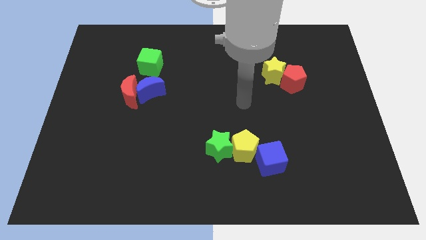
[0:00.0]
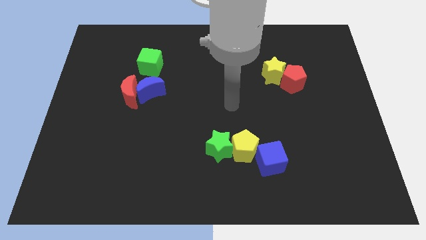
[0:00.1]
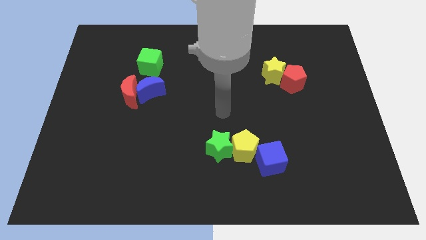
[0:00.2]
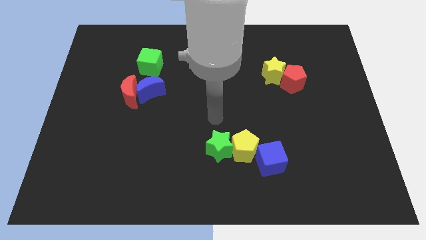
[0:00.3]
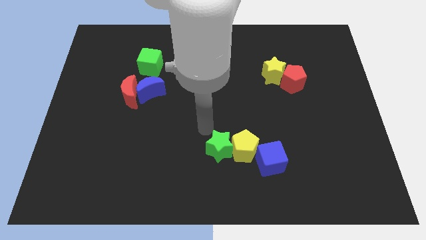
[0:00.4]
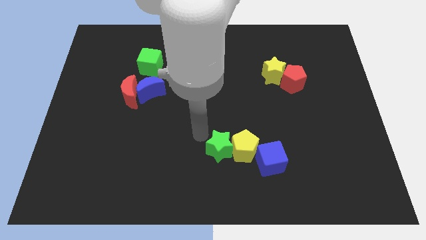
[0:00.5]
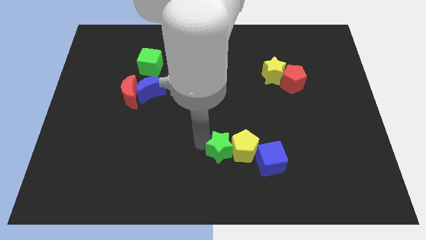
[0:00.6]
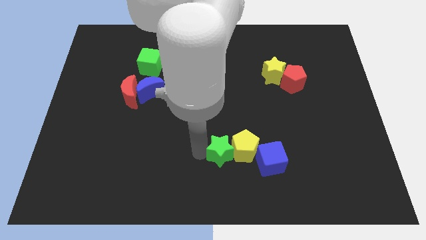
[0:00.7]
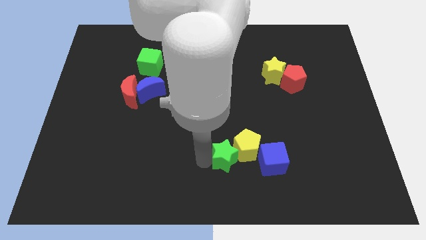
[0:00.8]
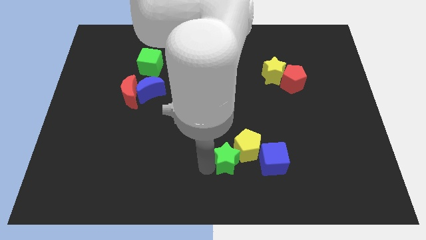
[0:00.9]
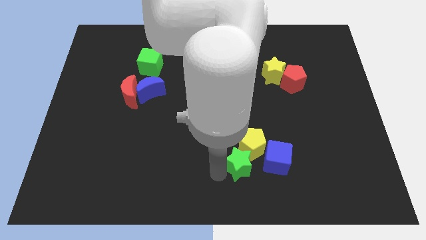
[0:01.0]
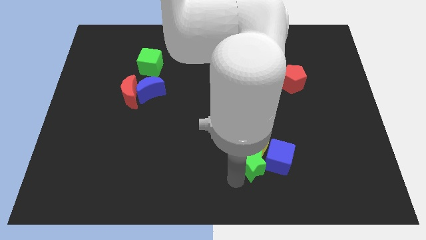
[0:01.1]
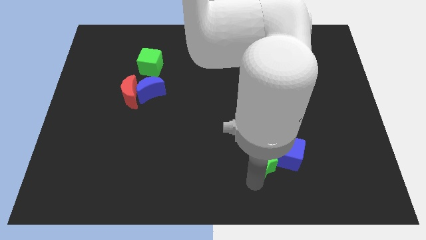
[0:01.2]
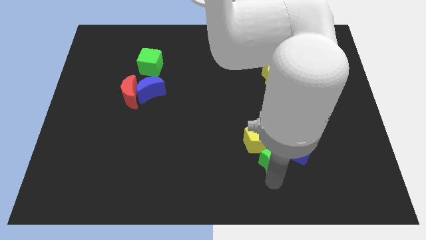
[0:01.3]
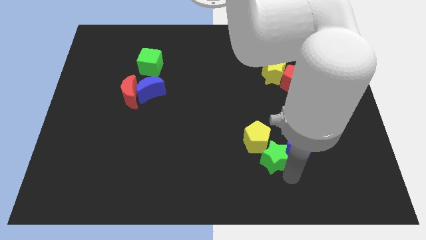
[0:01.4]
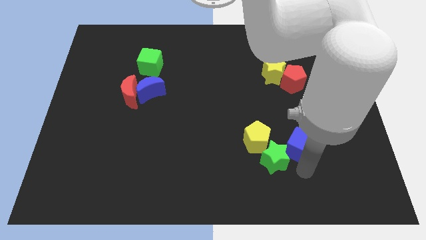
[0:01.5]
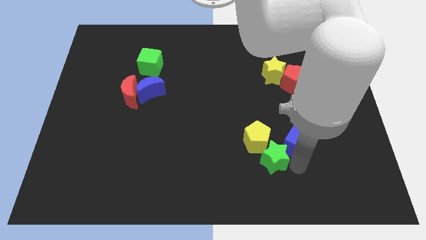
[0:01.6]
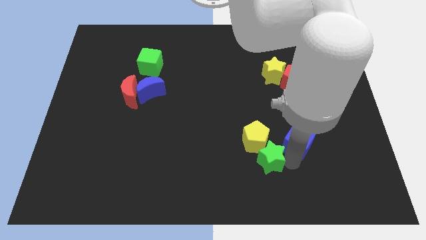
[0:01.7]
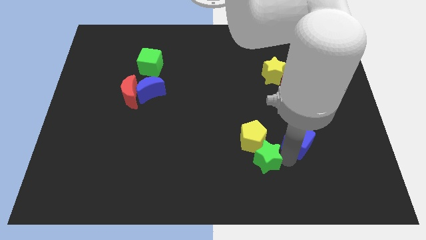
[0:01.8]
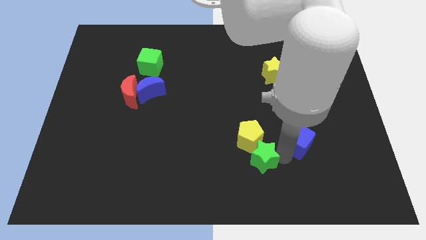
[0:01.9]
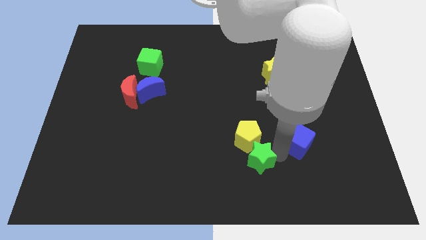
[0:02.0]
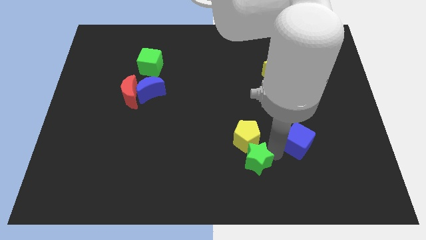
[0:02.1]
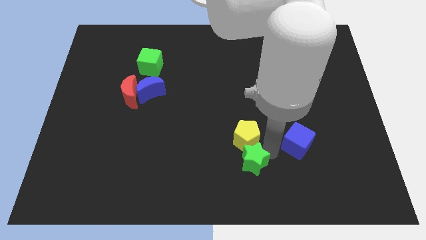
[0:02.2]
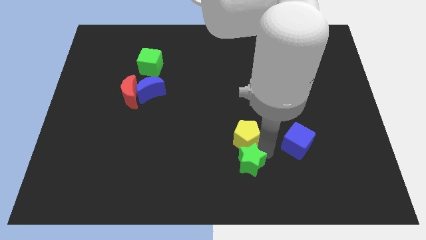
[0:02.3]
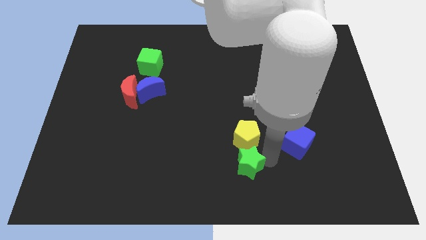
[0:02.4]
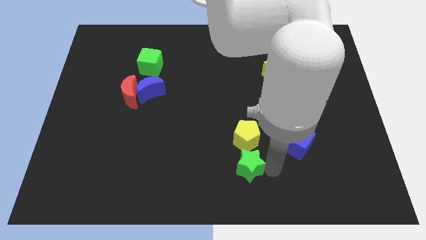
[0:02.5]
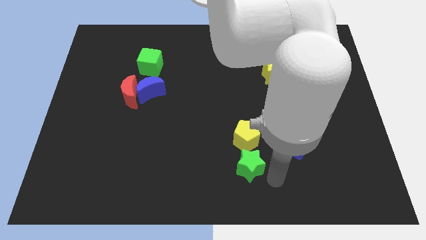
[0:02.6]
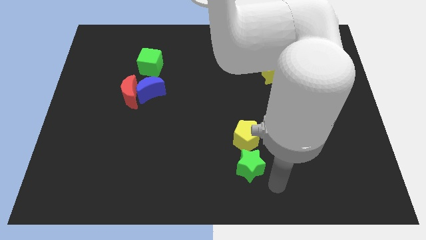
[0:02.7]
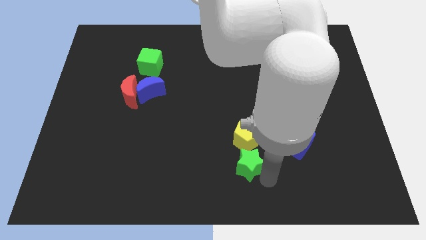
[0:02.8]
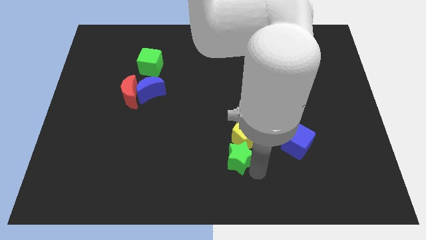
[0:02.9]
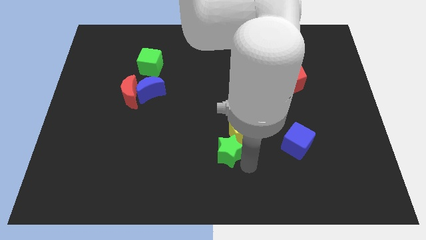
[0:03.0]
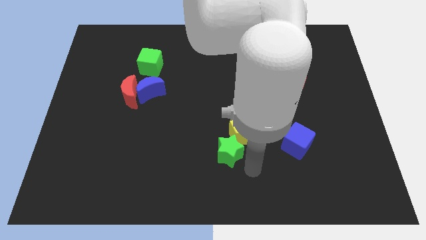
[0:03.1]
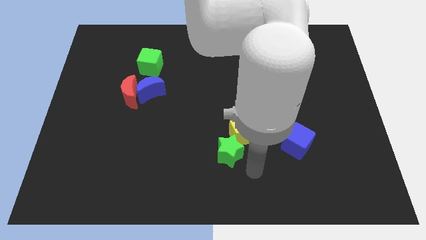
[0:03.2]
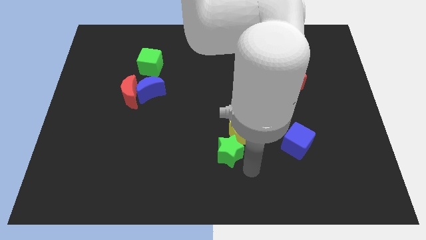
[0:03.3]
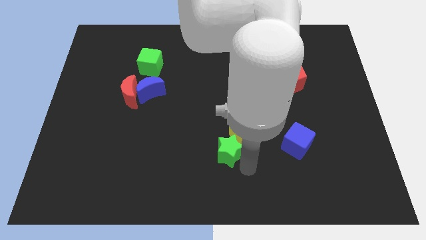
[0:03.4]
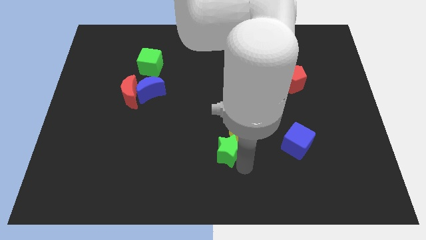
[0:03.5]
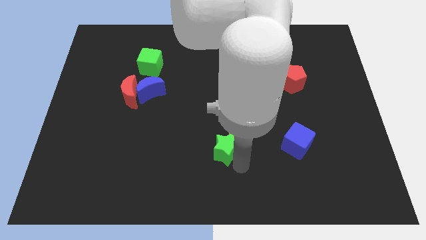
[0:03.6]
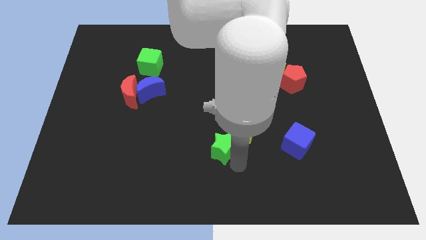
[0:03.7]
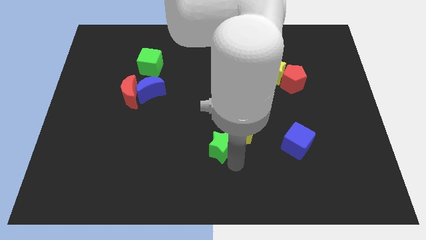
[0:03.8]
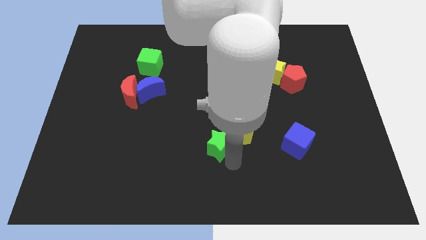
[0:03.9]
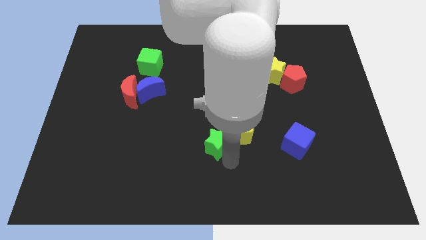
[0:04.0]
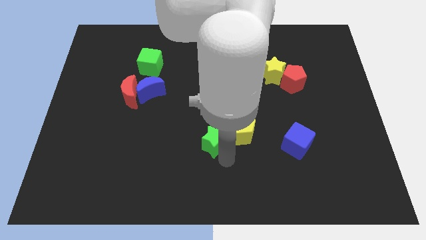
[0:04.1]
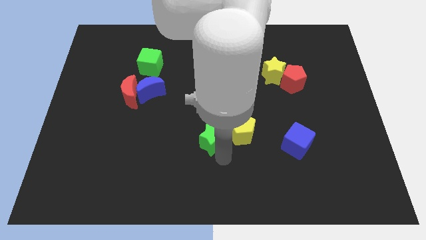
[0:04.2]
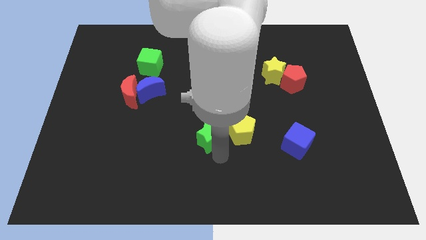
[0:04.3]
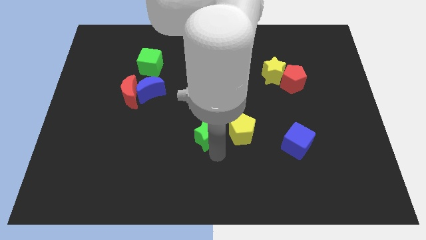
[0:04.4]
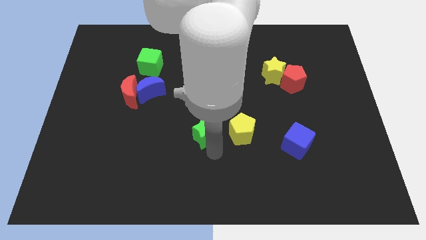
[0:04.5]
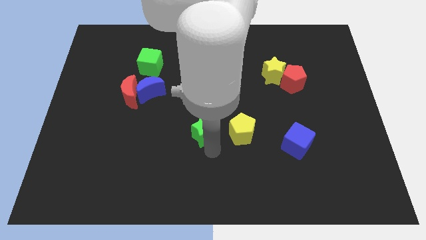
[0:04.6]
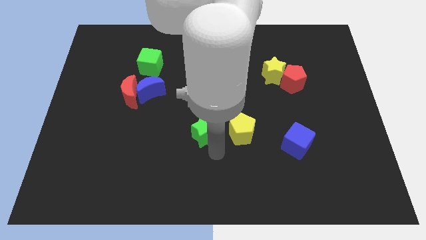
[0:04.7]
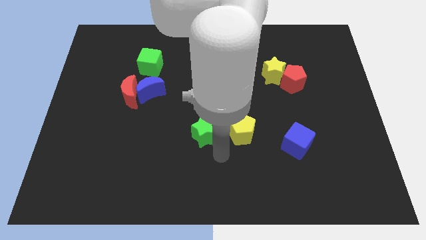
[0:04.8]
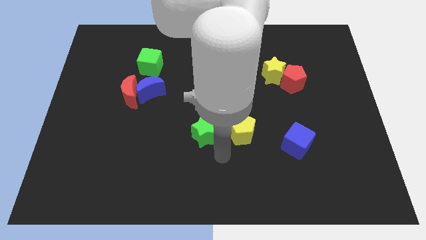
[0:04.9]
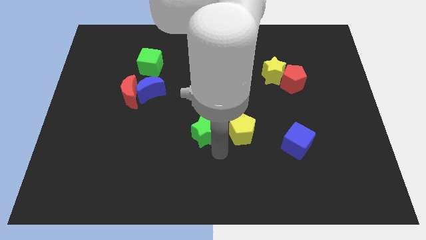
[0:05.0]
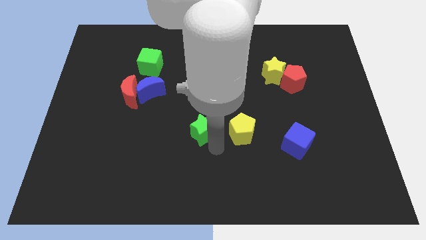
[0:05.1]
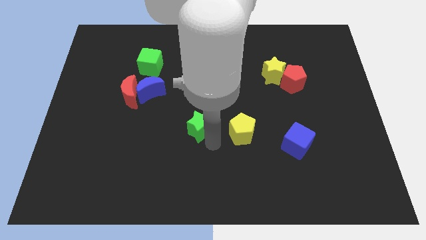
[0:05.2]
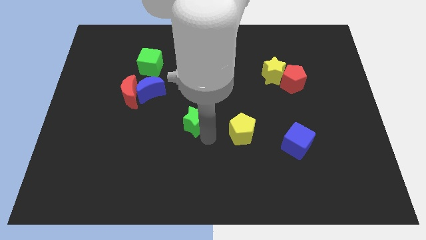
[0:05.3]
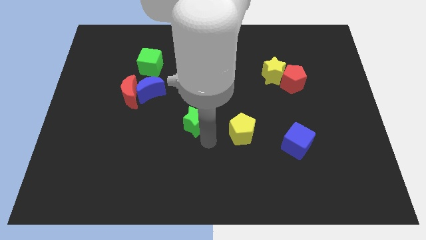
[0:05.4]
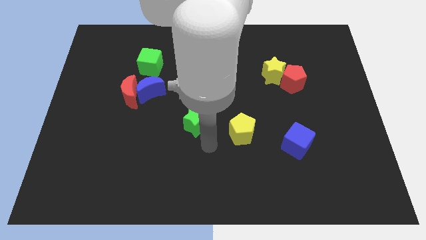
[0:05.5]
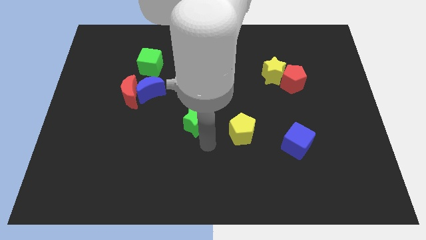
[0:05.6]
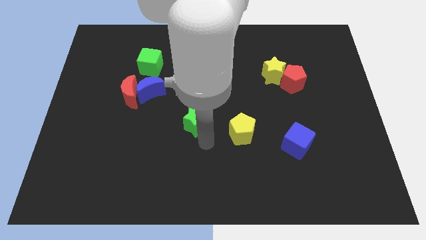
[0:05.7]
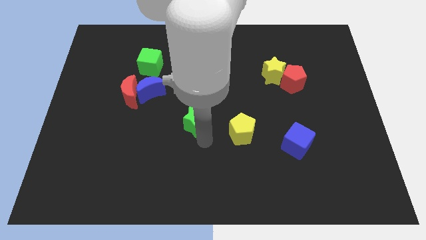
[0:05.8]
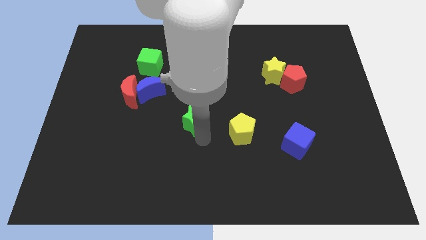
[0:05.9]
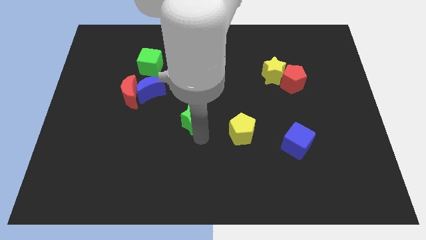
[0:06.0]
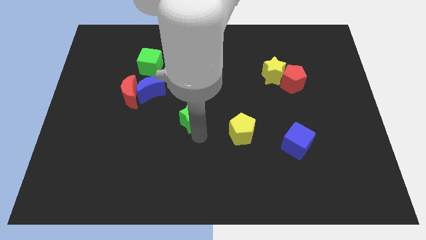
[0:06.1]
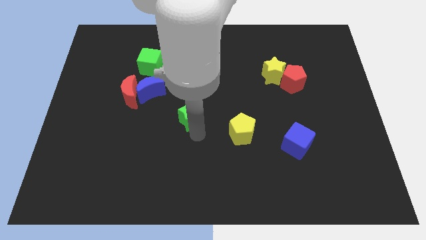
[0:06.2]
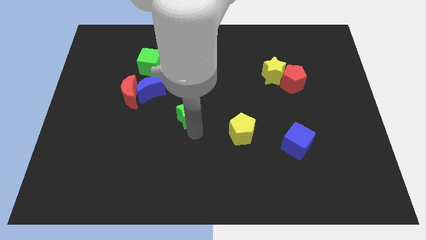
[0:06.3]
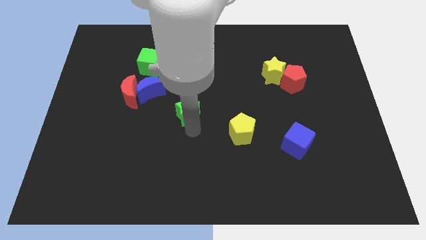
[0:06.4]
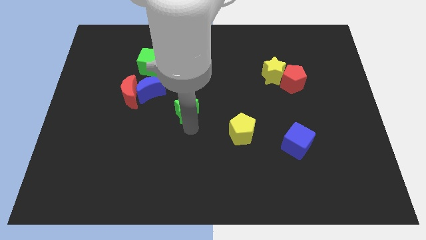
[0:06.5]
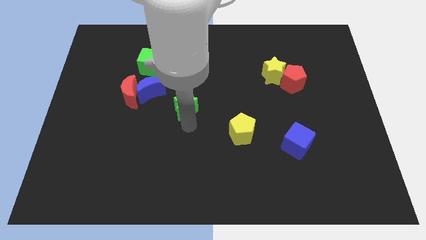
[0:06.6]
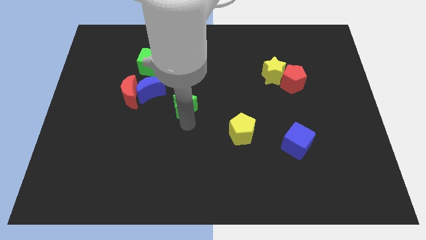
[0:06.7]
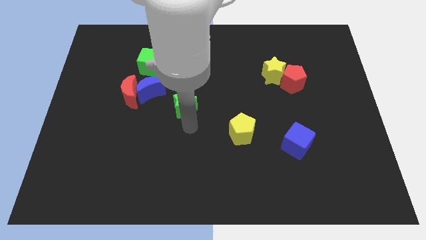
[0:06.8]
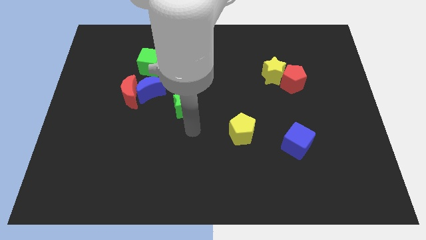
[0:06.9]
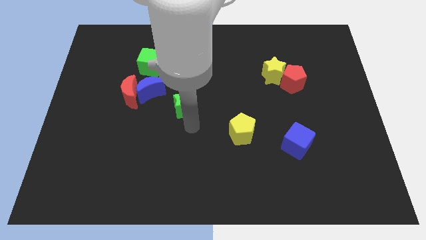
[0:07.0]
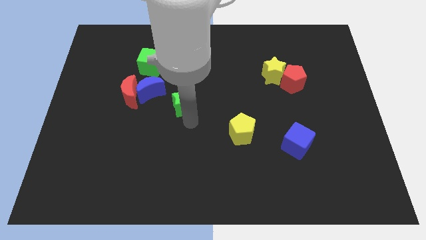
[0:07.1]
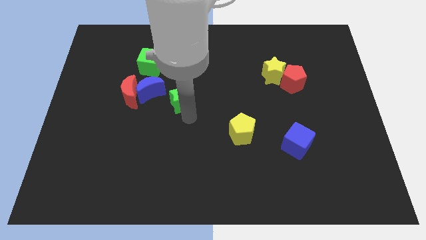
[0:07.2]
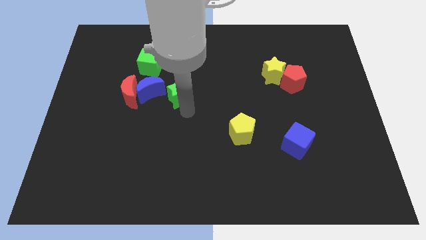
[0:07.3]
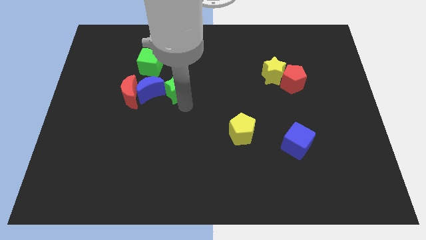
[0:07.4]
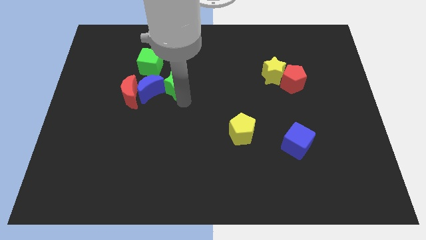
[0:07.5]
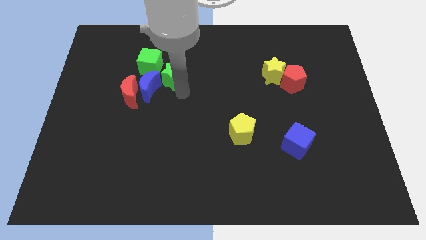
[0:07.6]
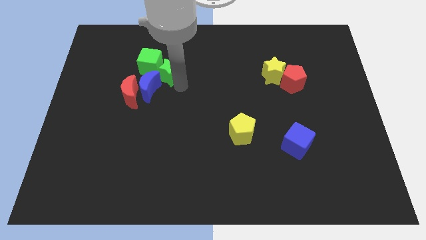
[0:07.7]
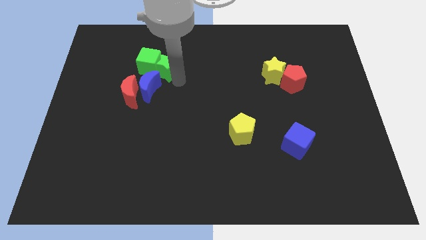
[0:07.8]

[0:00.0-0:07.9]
move the green star towards the green cube
